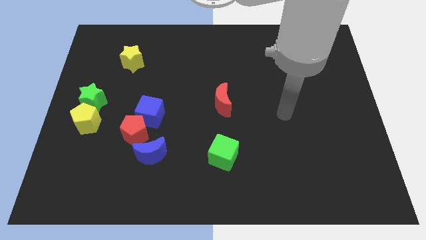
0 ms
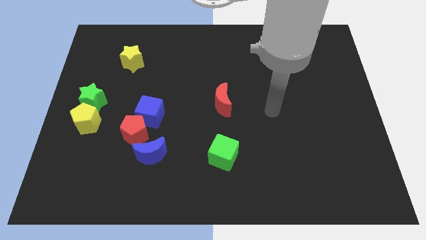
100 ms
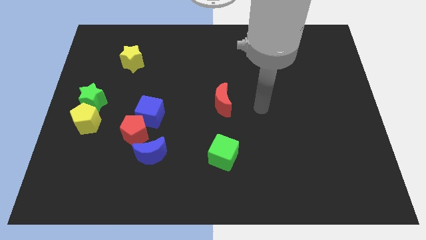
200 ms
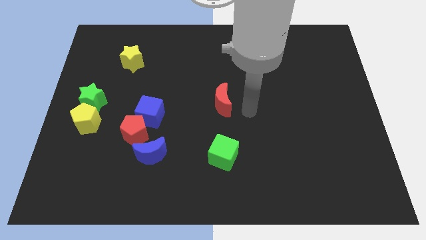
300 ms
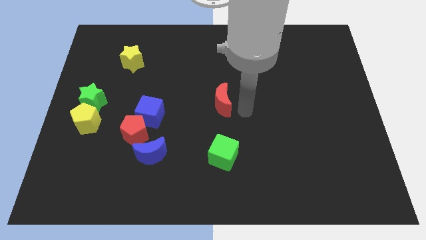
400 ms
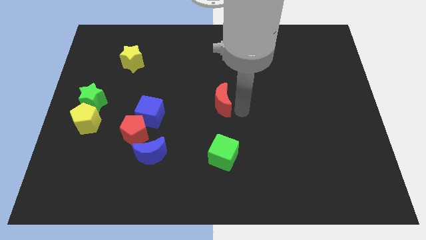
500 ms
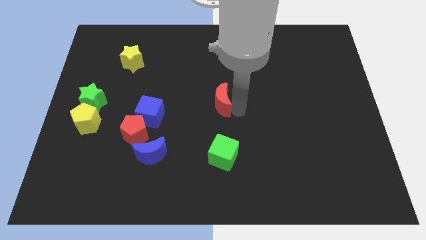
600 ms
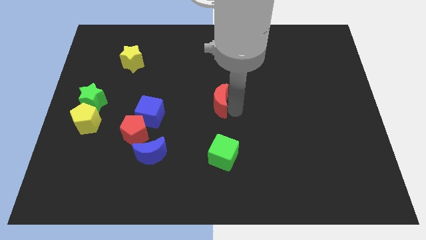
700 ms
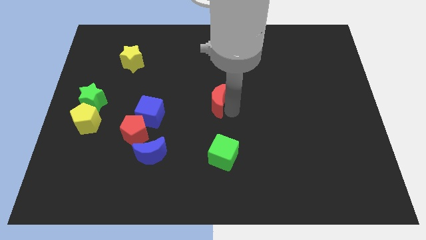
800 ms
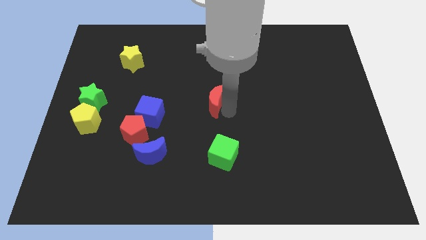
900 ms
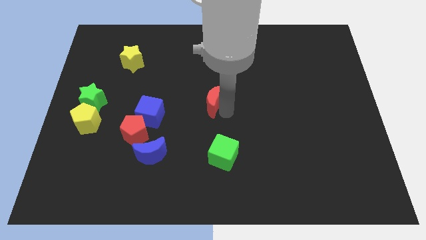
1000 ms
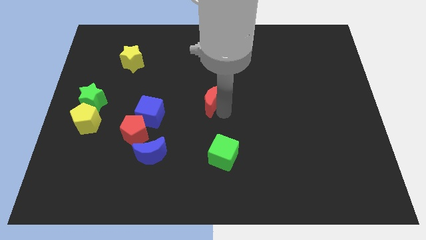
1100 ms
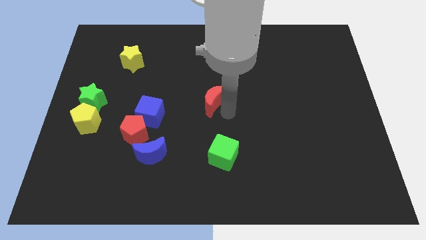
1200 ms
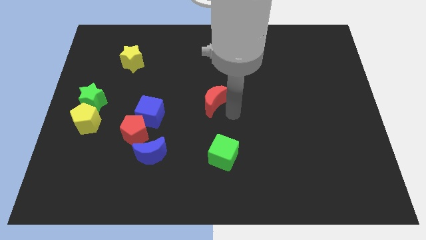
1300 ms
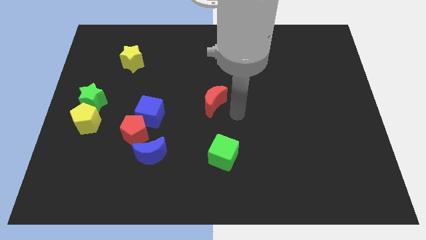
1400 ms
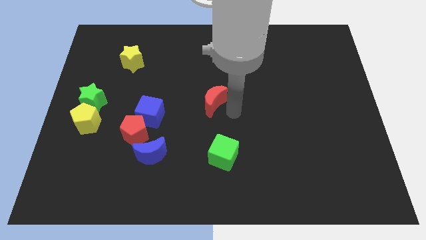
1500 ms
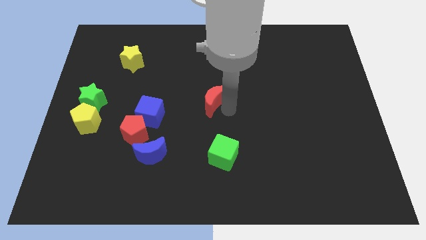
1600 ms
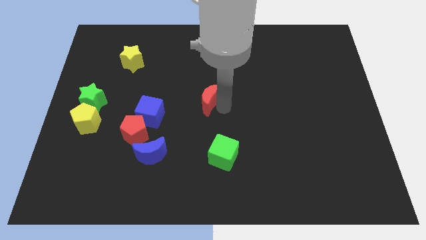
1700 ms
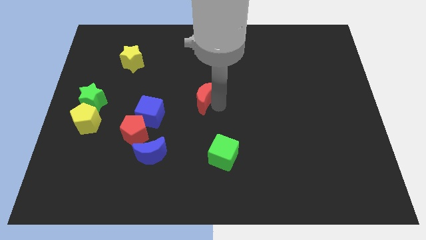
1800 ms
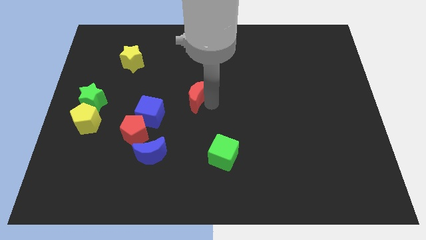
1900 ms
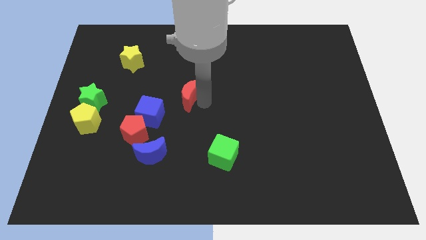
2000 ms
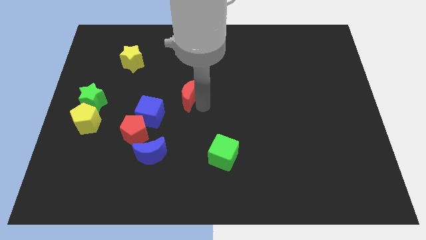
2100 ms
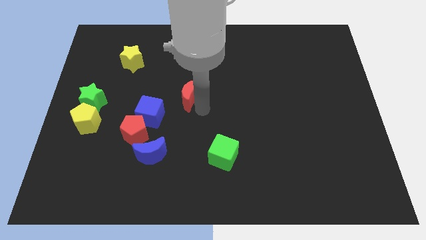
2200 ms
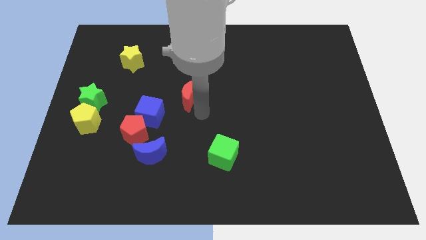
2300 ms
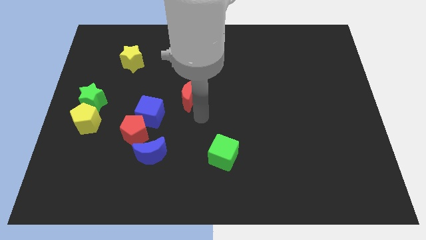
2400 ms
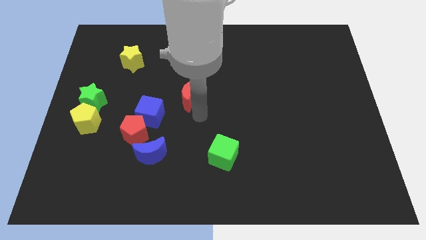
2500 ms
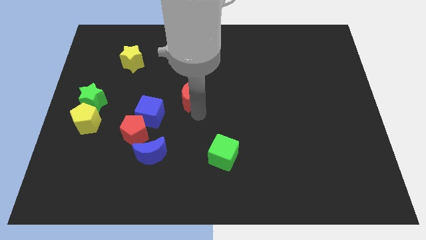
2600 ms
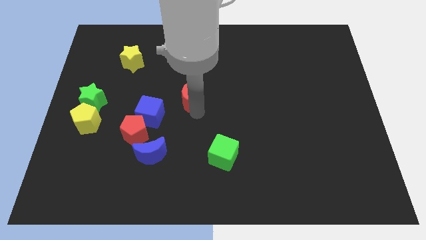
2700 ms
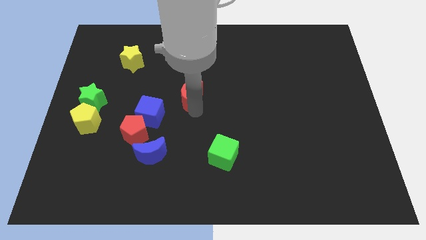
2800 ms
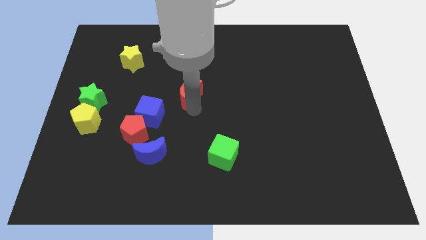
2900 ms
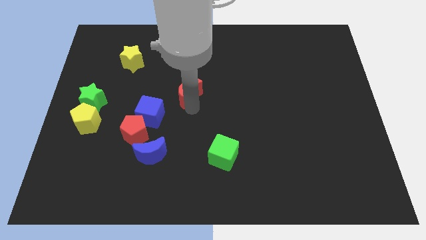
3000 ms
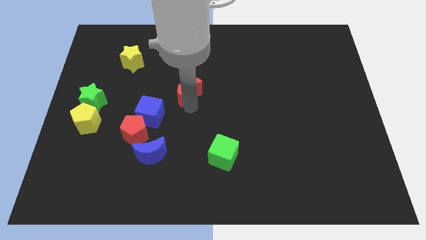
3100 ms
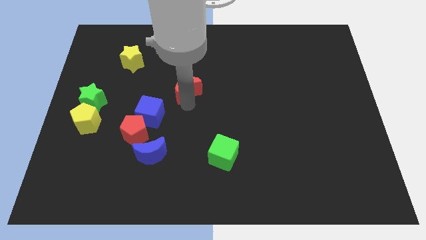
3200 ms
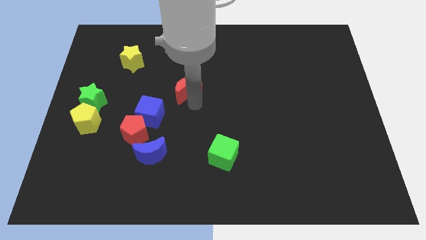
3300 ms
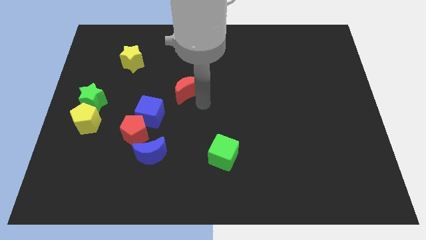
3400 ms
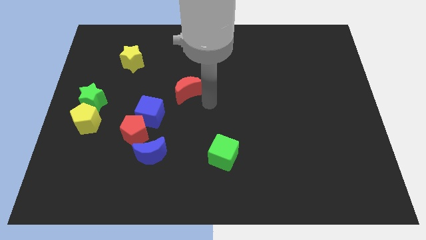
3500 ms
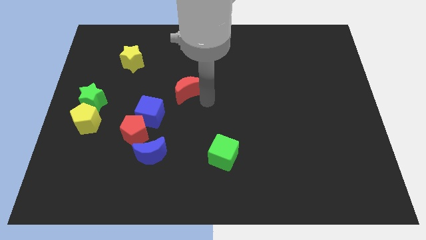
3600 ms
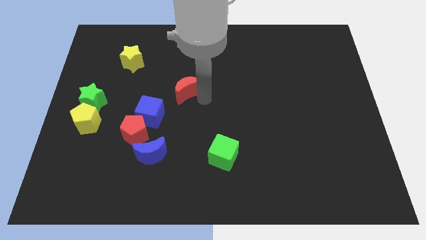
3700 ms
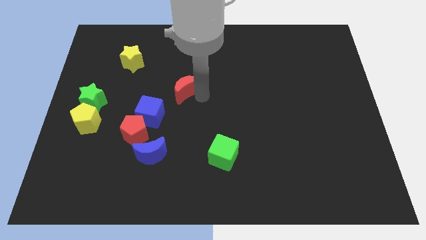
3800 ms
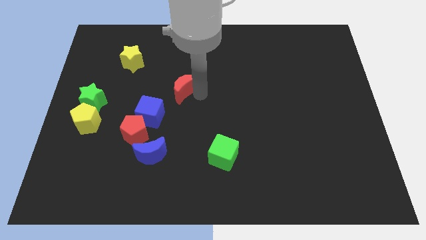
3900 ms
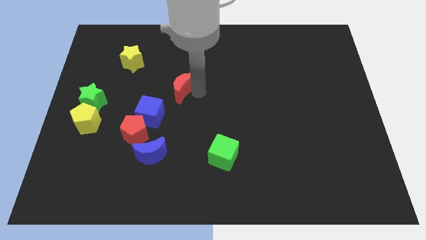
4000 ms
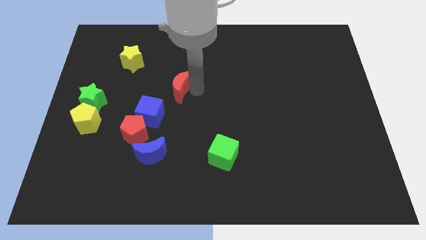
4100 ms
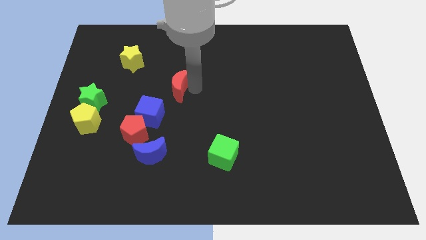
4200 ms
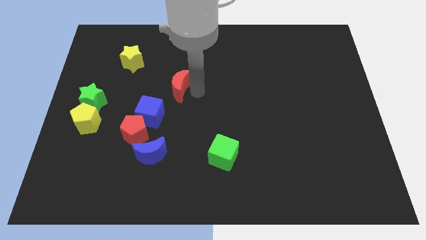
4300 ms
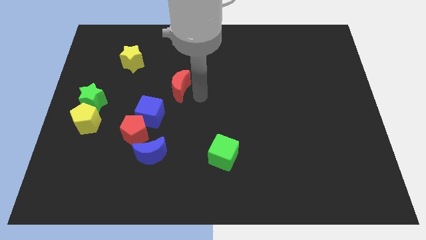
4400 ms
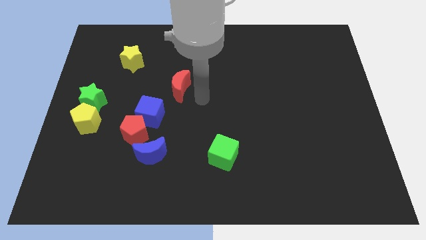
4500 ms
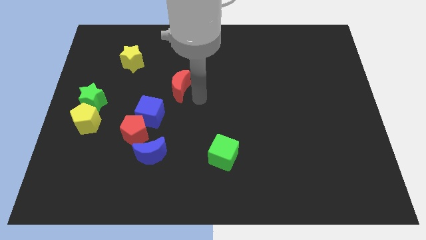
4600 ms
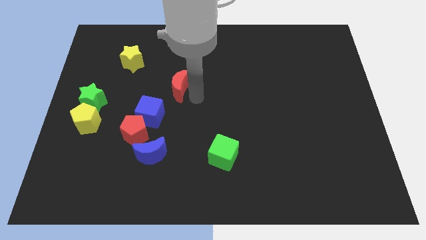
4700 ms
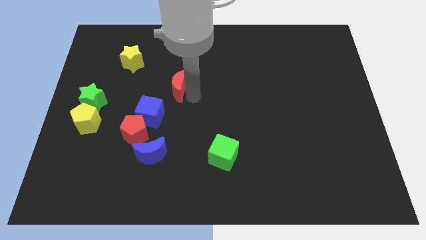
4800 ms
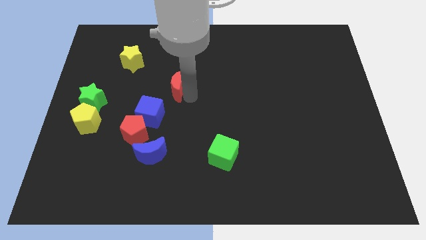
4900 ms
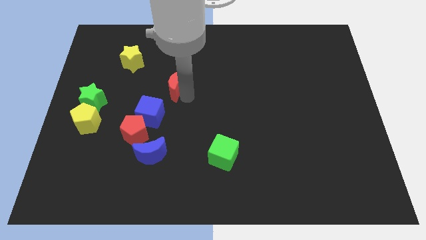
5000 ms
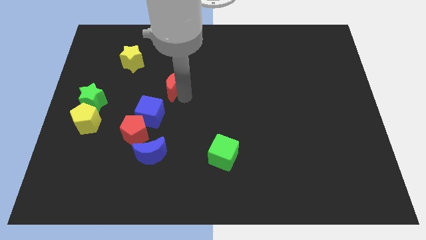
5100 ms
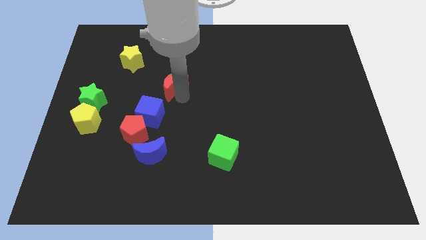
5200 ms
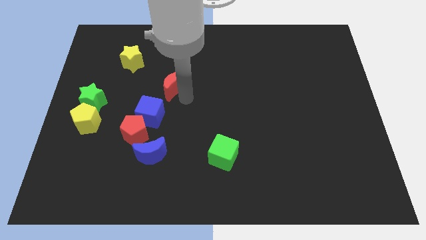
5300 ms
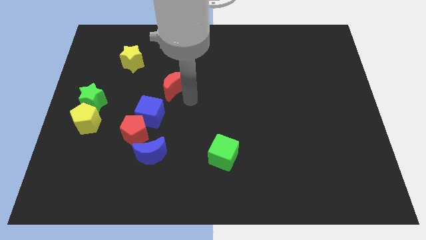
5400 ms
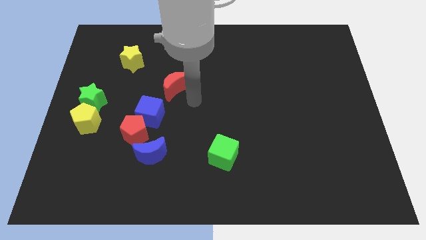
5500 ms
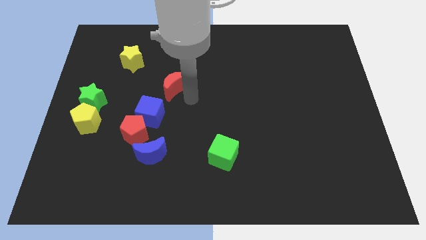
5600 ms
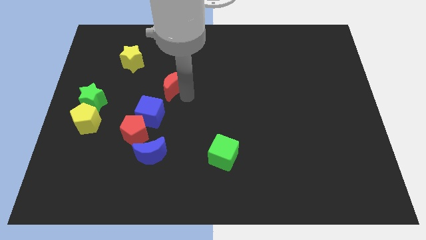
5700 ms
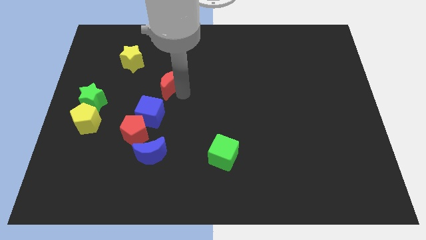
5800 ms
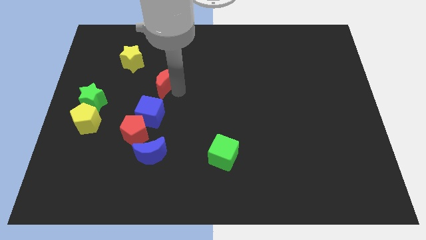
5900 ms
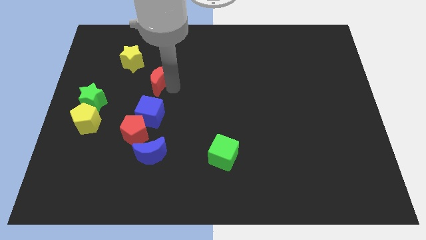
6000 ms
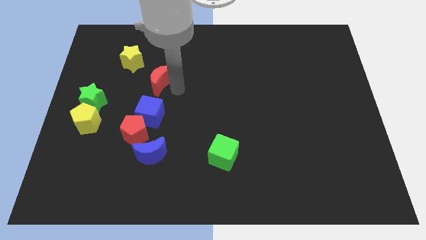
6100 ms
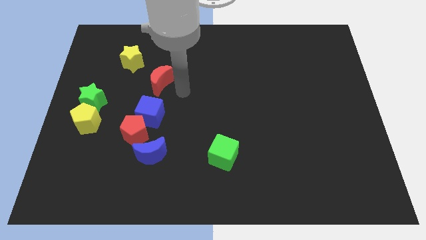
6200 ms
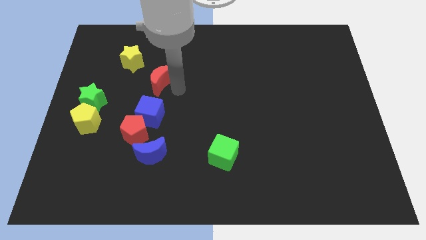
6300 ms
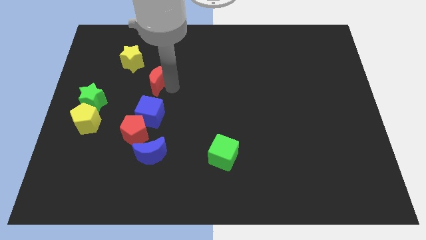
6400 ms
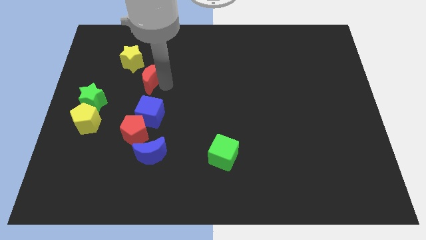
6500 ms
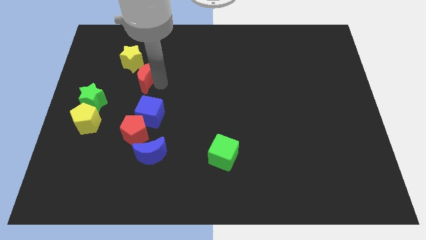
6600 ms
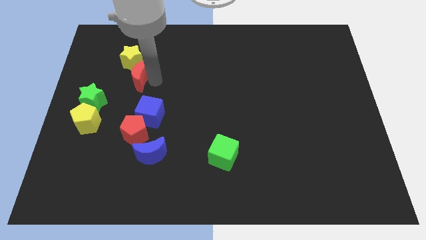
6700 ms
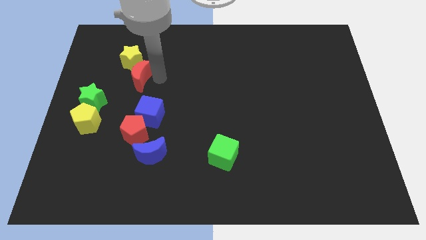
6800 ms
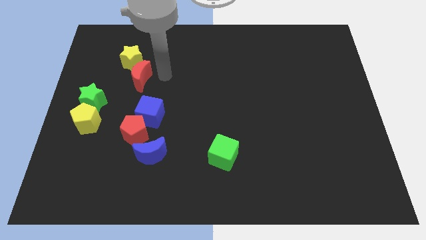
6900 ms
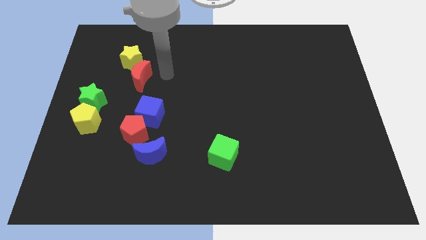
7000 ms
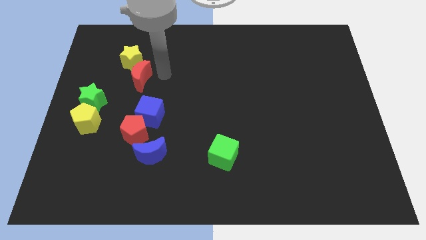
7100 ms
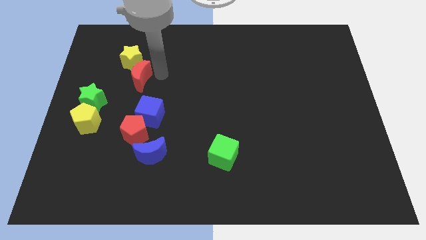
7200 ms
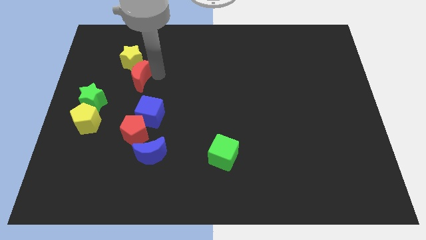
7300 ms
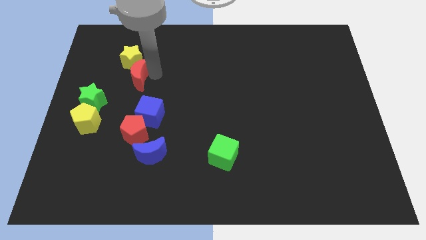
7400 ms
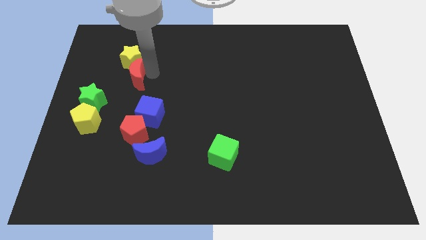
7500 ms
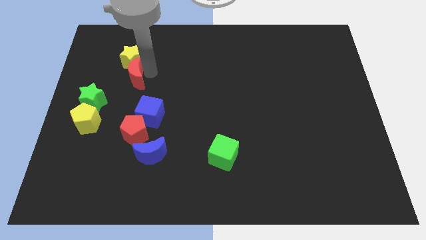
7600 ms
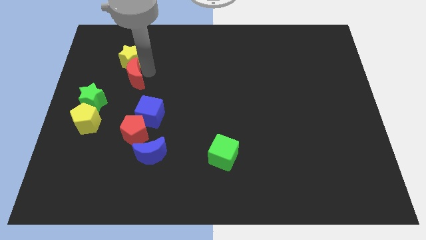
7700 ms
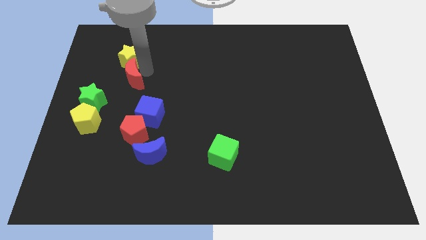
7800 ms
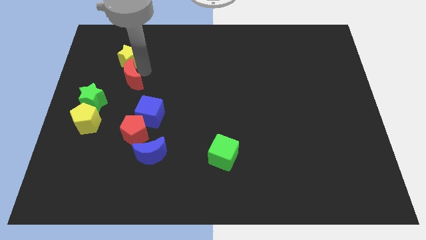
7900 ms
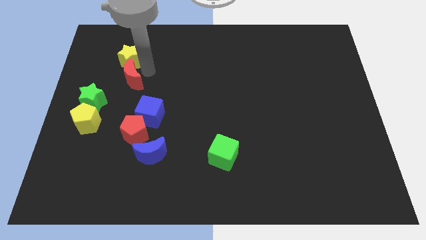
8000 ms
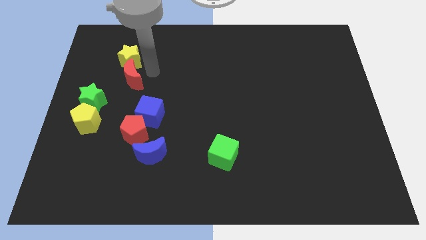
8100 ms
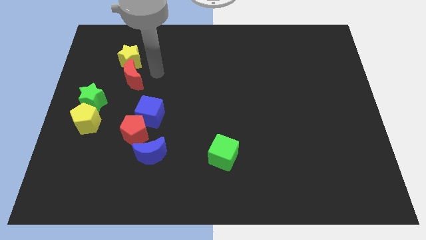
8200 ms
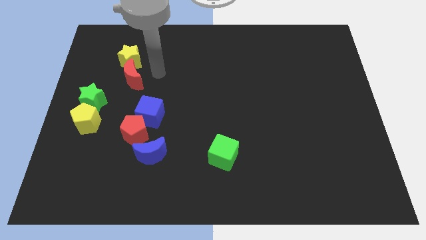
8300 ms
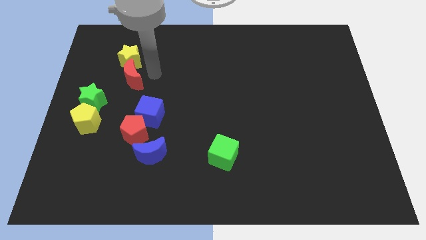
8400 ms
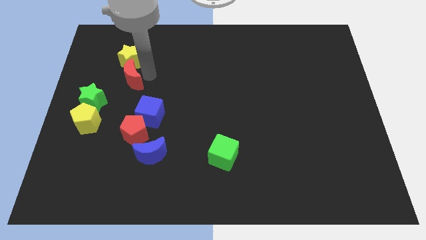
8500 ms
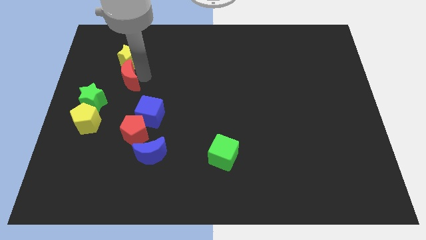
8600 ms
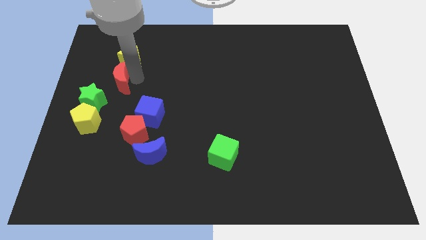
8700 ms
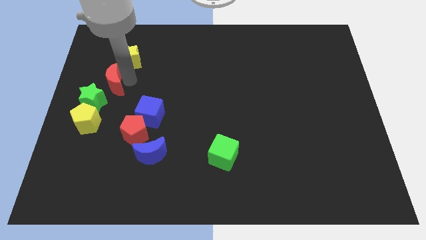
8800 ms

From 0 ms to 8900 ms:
move the red moon above the yellow pentagon
